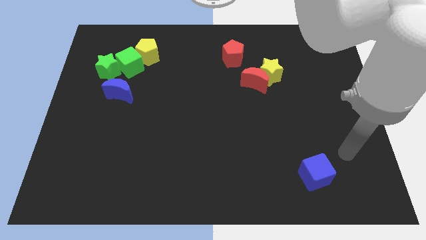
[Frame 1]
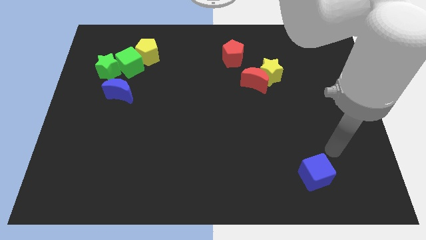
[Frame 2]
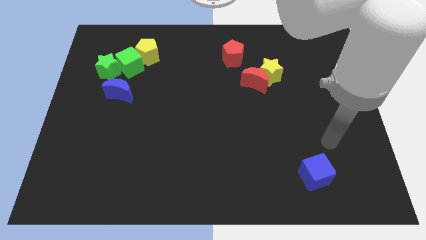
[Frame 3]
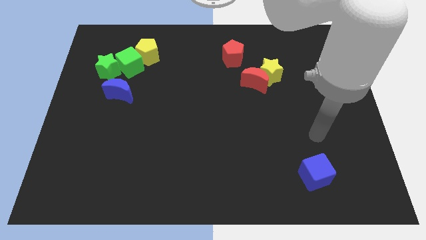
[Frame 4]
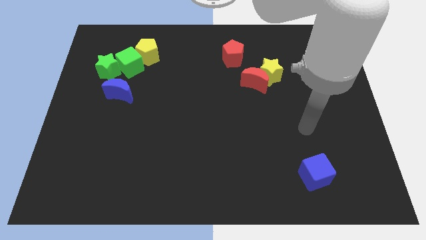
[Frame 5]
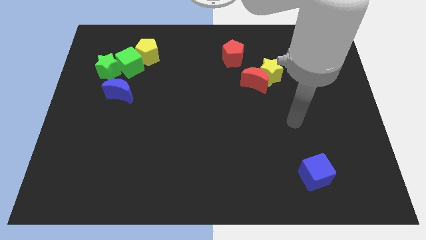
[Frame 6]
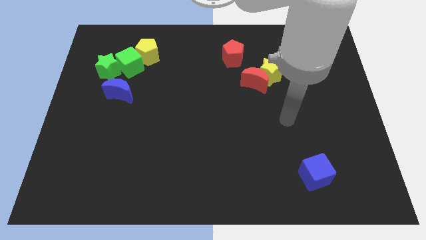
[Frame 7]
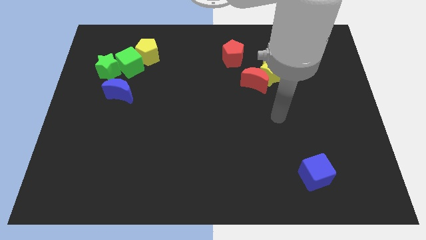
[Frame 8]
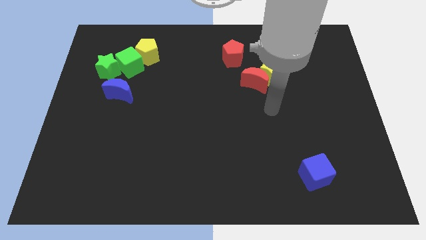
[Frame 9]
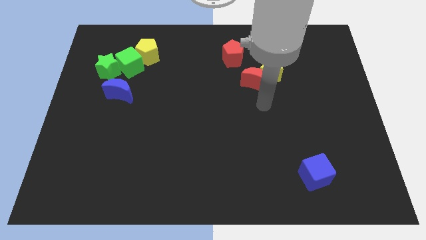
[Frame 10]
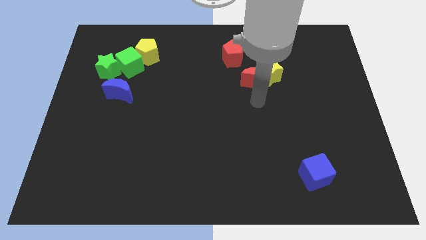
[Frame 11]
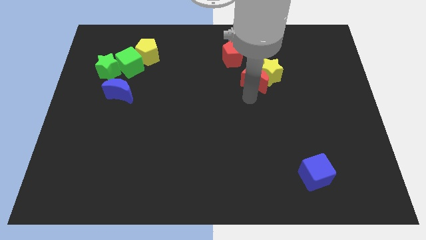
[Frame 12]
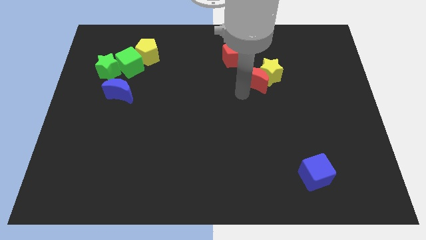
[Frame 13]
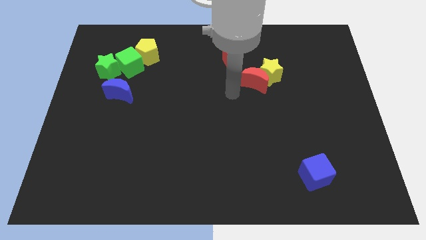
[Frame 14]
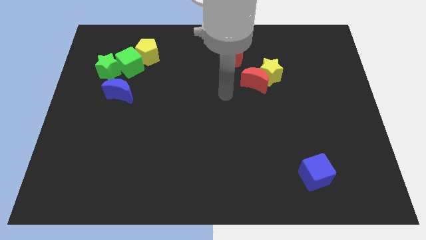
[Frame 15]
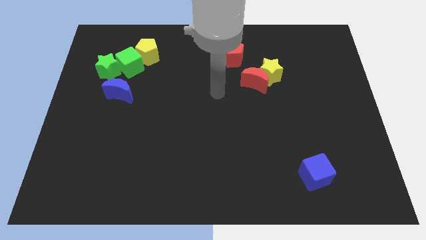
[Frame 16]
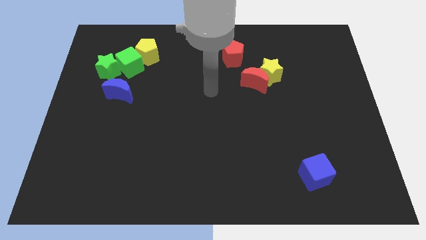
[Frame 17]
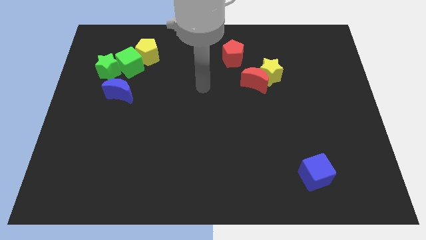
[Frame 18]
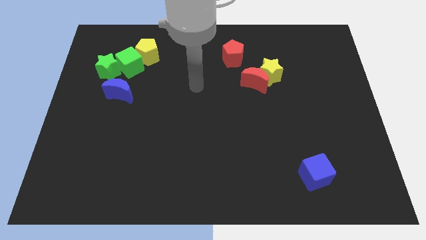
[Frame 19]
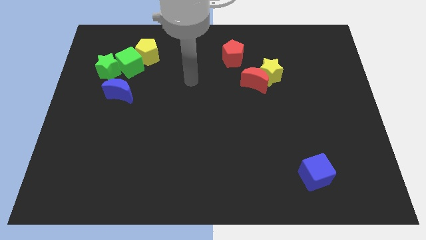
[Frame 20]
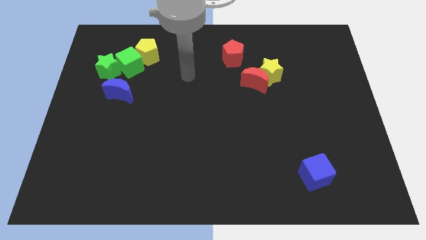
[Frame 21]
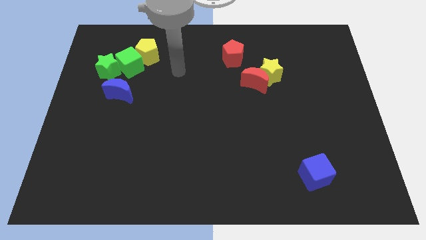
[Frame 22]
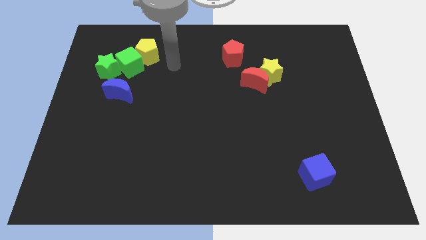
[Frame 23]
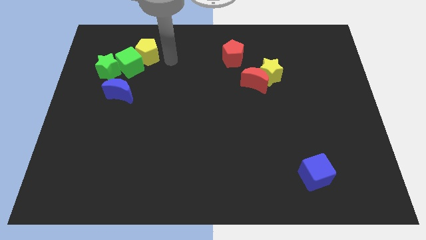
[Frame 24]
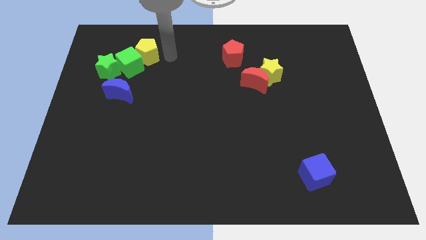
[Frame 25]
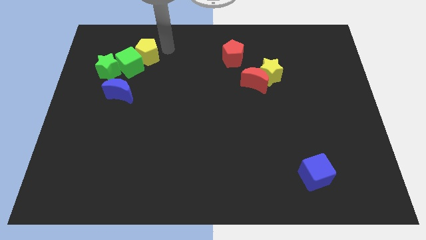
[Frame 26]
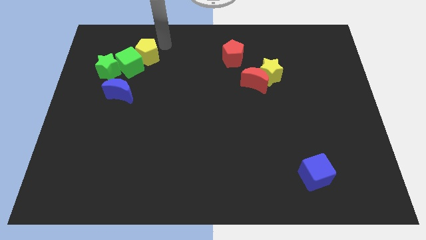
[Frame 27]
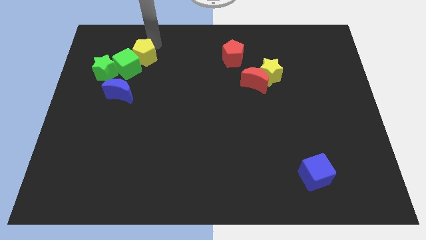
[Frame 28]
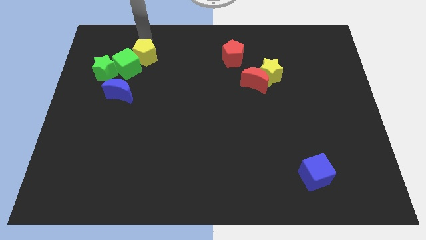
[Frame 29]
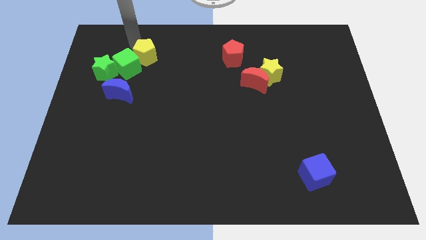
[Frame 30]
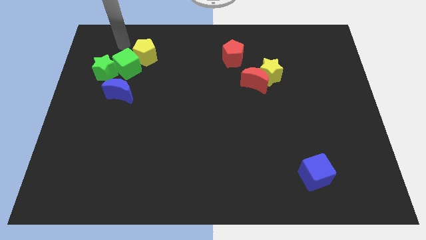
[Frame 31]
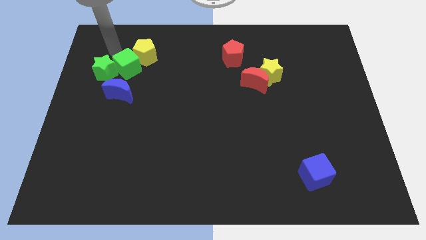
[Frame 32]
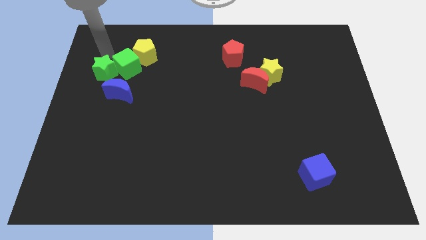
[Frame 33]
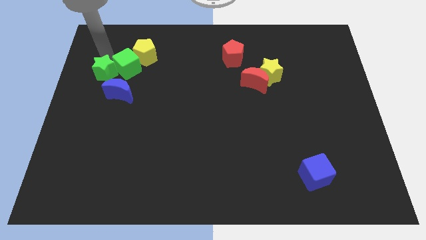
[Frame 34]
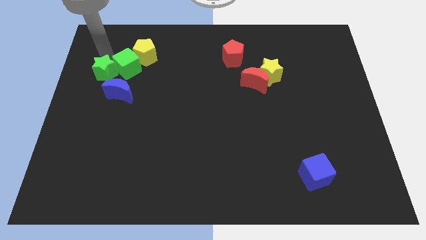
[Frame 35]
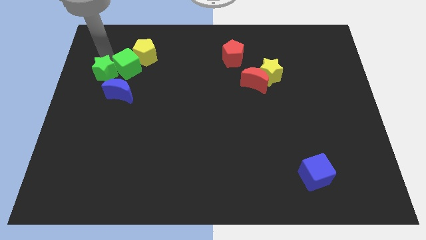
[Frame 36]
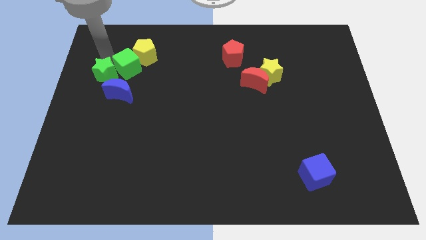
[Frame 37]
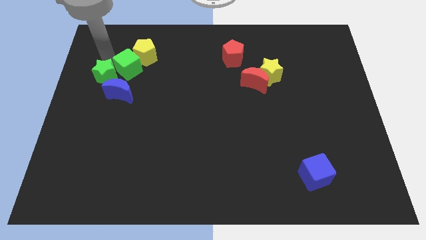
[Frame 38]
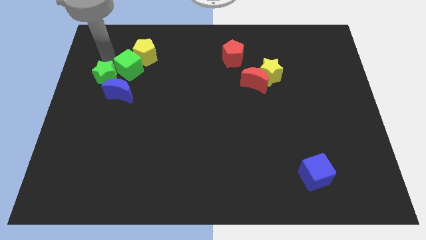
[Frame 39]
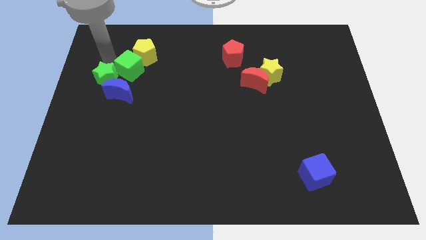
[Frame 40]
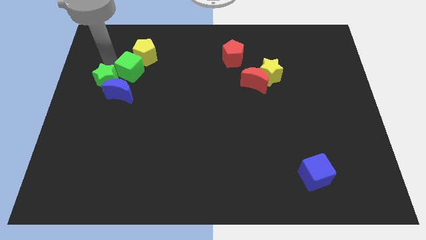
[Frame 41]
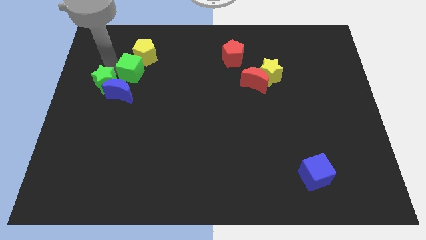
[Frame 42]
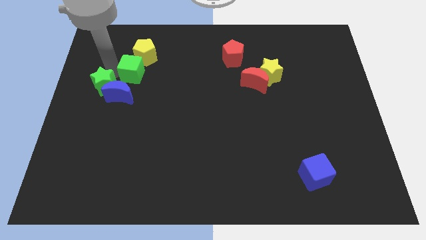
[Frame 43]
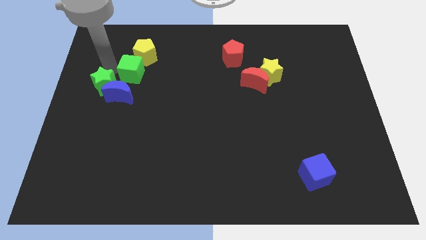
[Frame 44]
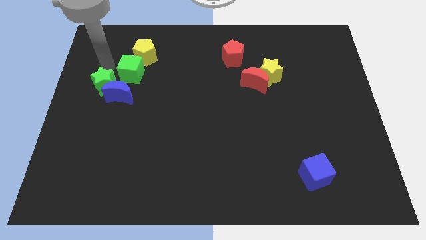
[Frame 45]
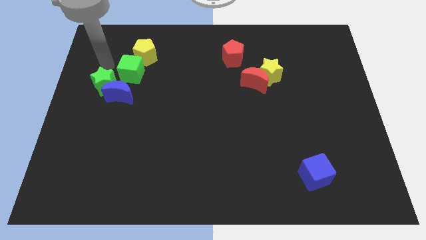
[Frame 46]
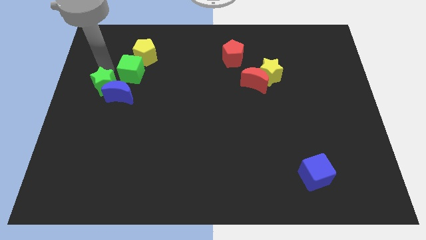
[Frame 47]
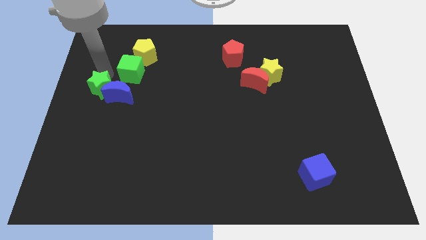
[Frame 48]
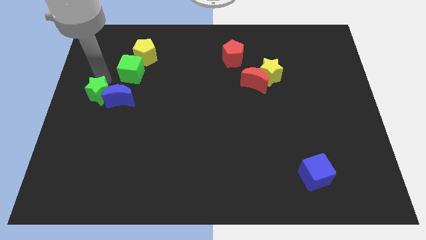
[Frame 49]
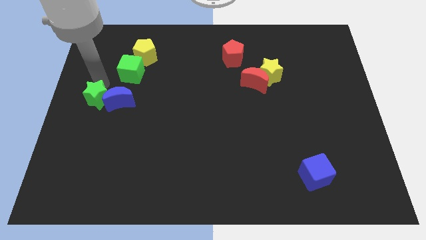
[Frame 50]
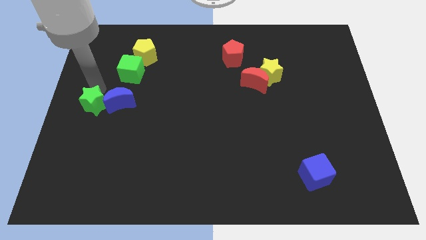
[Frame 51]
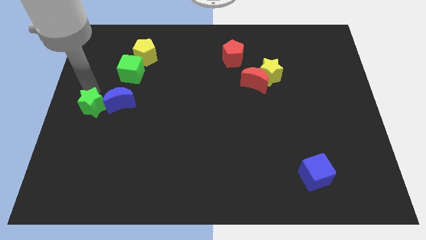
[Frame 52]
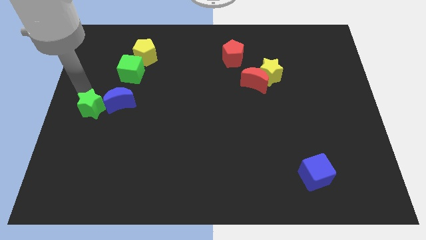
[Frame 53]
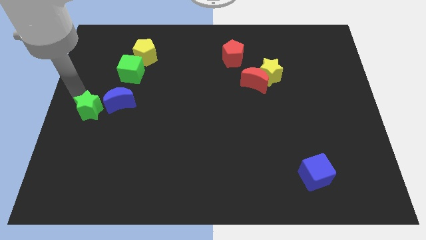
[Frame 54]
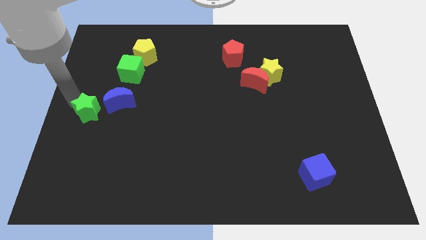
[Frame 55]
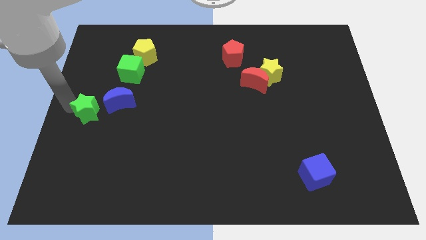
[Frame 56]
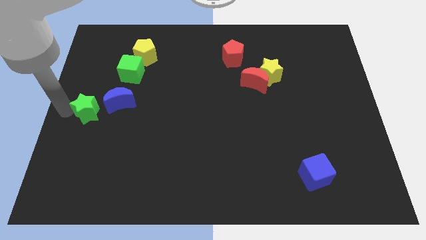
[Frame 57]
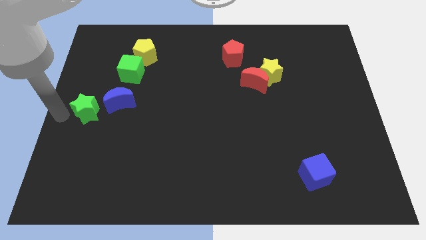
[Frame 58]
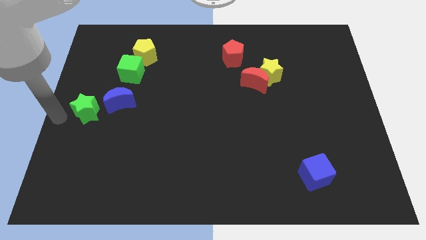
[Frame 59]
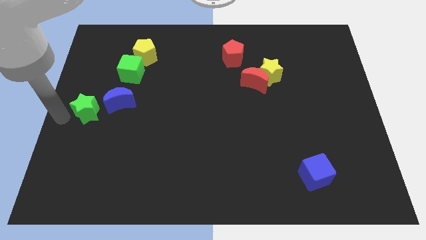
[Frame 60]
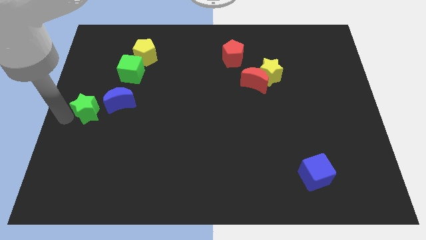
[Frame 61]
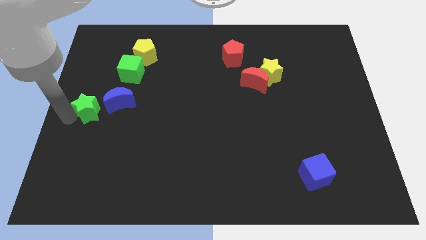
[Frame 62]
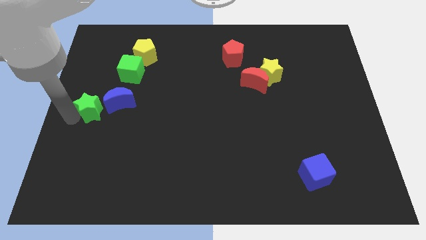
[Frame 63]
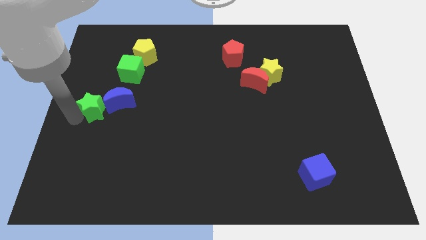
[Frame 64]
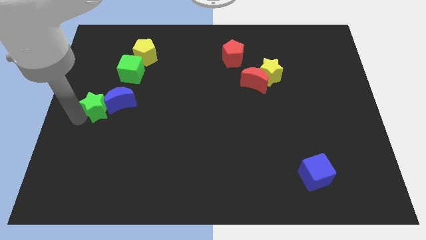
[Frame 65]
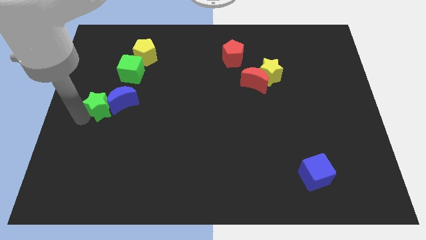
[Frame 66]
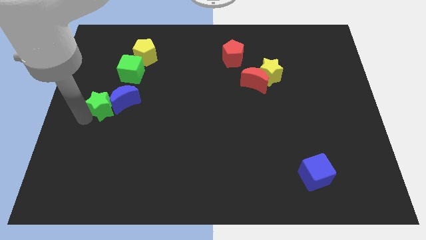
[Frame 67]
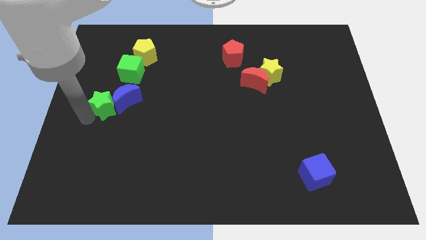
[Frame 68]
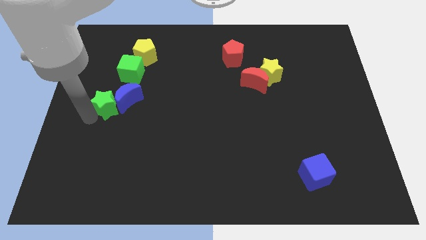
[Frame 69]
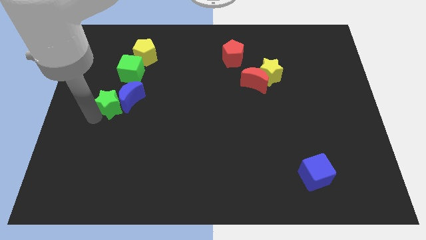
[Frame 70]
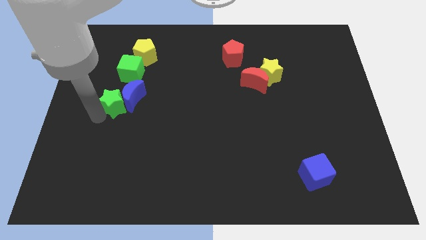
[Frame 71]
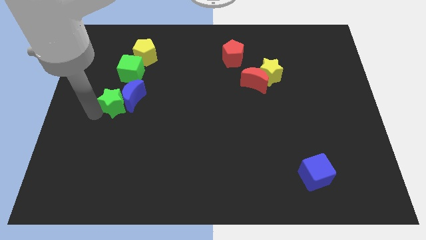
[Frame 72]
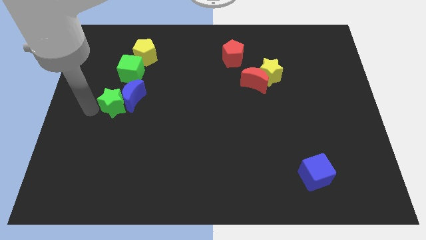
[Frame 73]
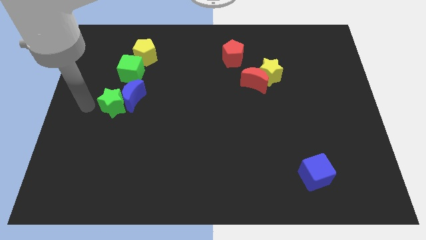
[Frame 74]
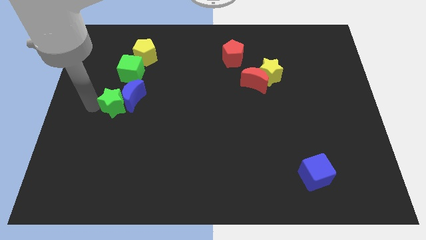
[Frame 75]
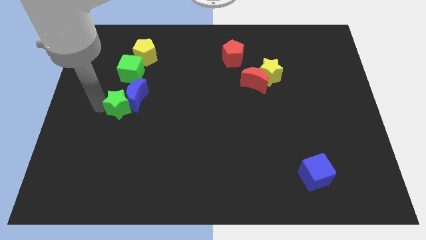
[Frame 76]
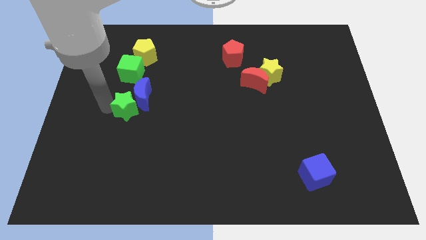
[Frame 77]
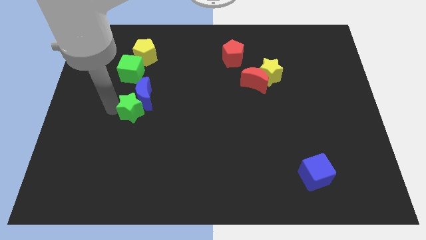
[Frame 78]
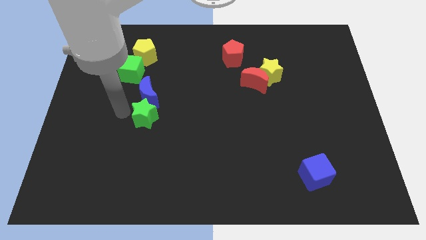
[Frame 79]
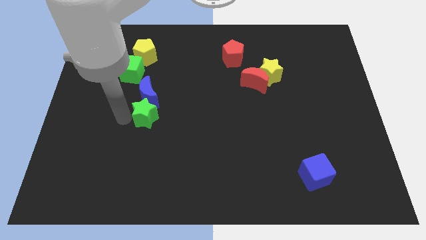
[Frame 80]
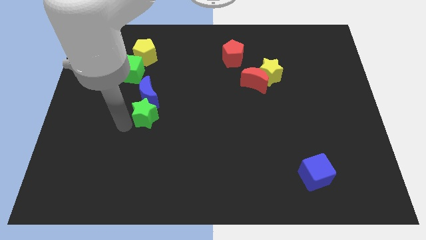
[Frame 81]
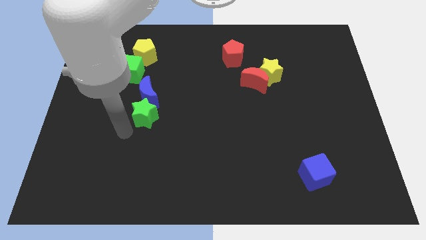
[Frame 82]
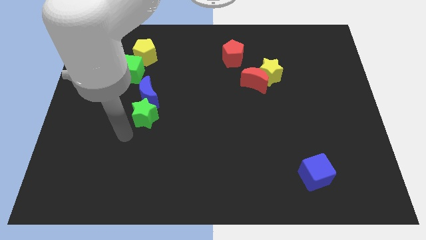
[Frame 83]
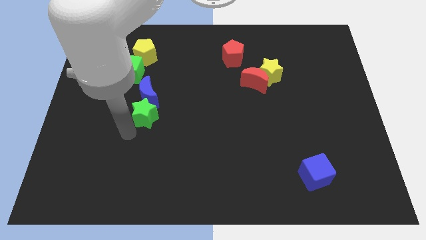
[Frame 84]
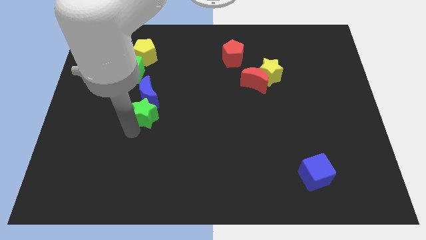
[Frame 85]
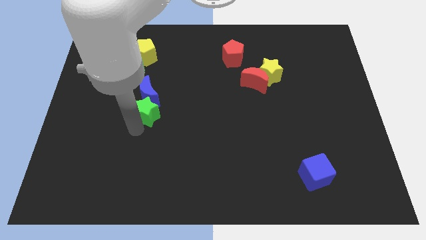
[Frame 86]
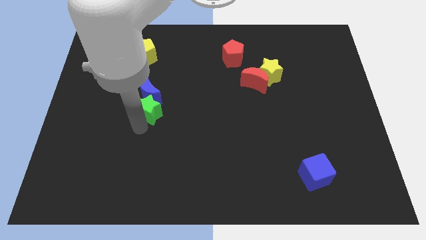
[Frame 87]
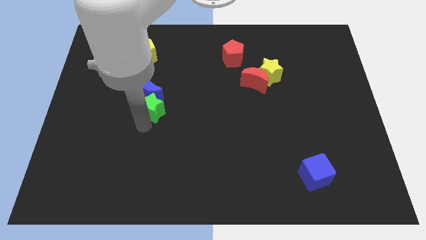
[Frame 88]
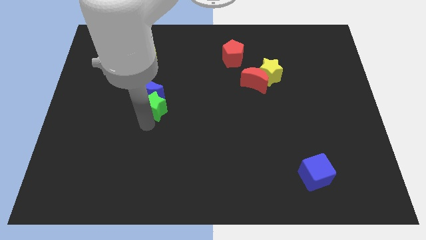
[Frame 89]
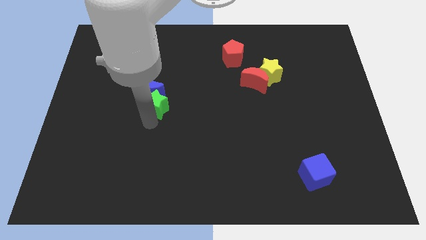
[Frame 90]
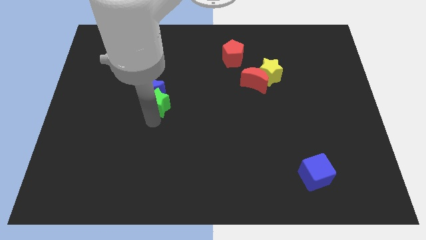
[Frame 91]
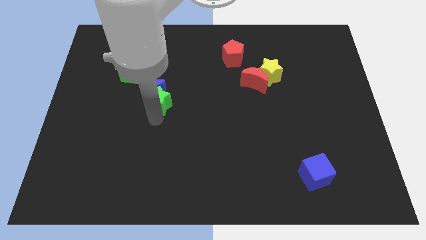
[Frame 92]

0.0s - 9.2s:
put the green star to the center
